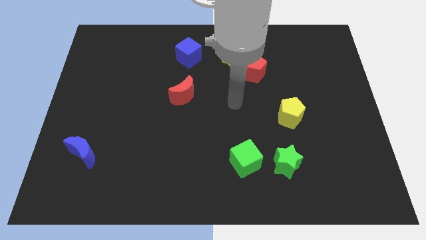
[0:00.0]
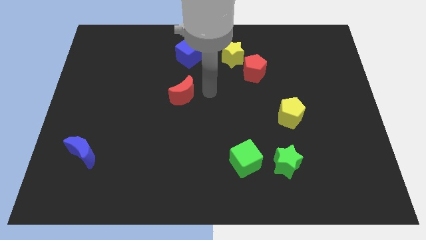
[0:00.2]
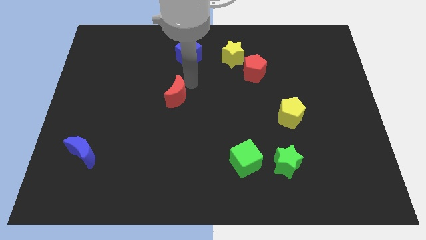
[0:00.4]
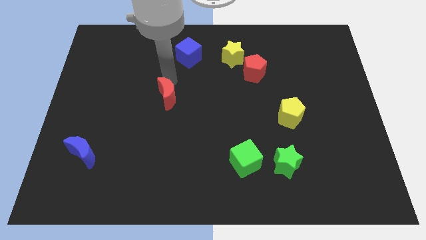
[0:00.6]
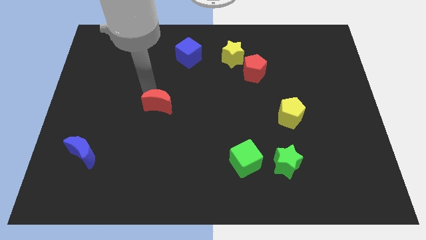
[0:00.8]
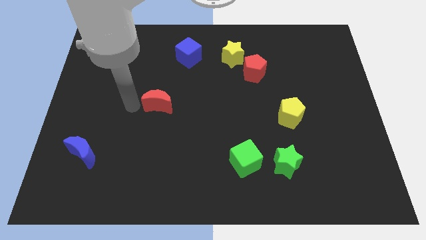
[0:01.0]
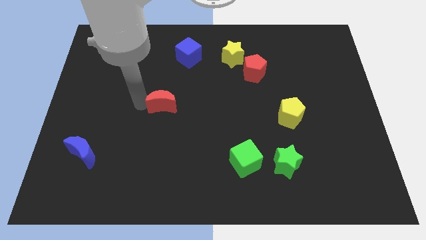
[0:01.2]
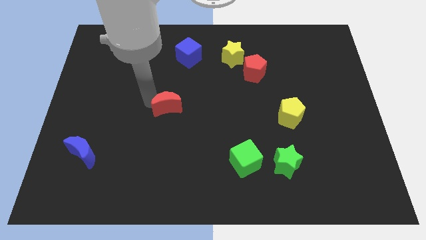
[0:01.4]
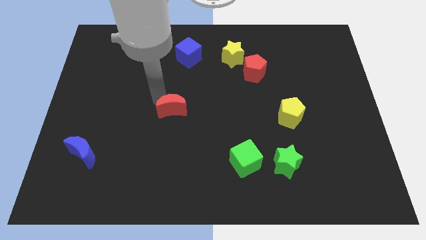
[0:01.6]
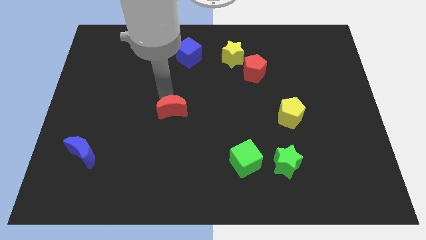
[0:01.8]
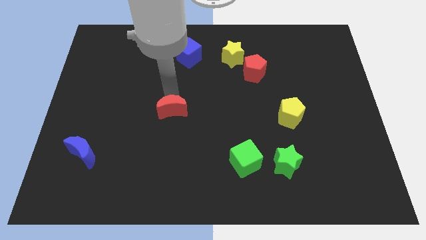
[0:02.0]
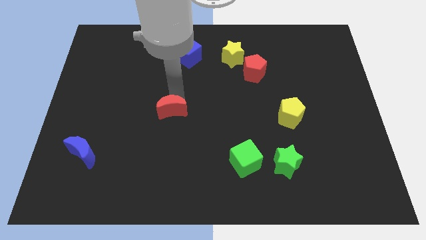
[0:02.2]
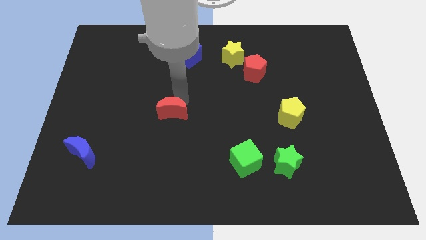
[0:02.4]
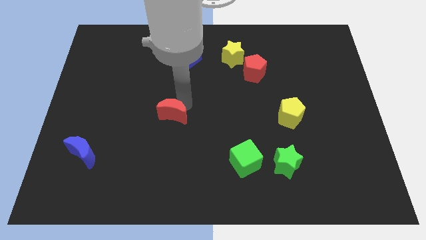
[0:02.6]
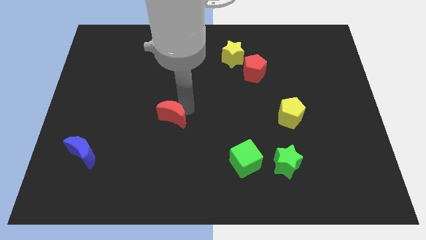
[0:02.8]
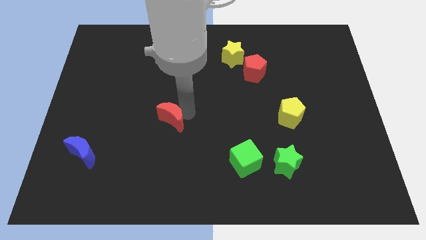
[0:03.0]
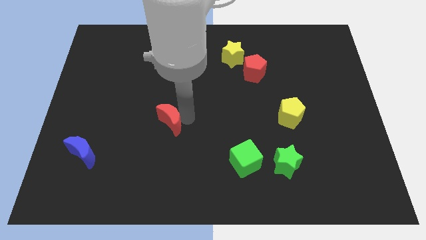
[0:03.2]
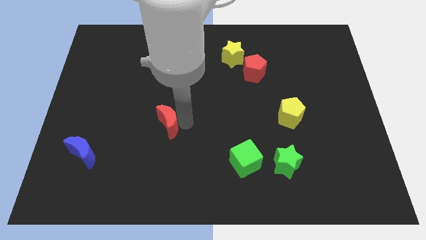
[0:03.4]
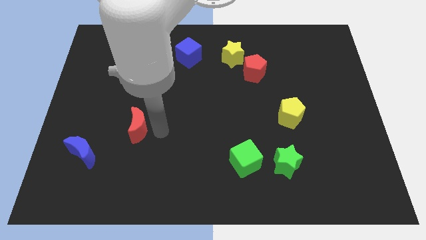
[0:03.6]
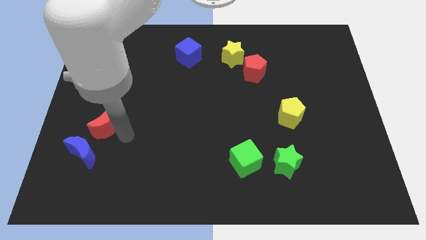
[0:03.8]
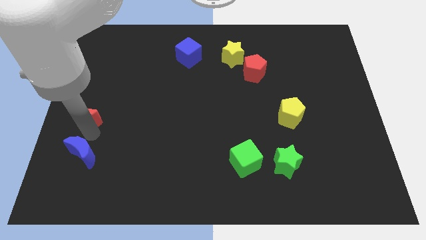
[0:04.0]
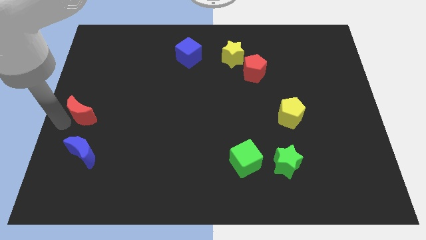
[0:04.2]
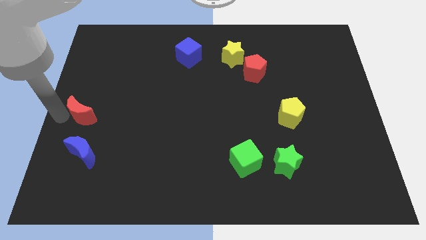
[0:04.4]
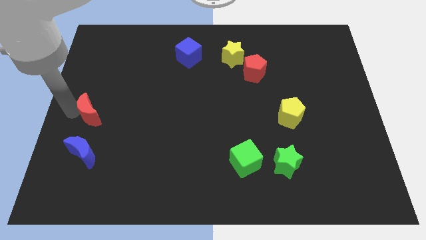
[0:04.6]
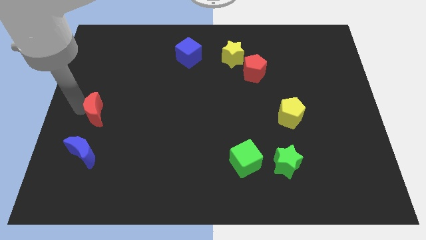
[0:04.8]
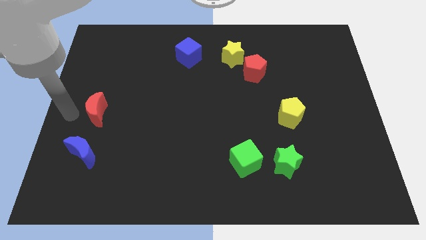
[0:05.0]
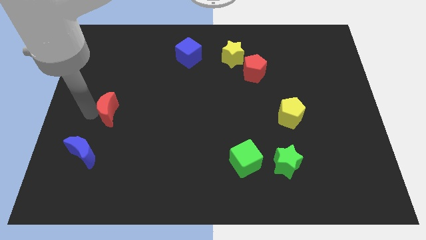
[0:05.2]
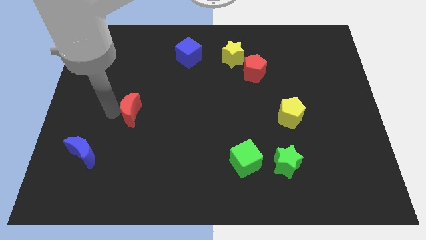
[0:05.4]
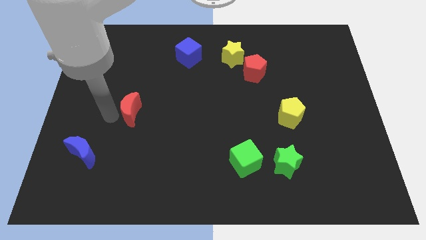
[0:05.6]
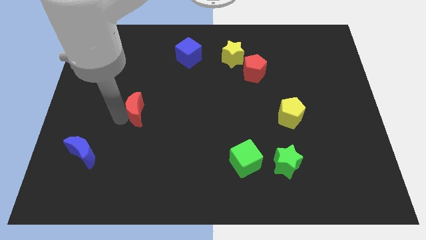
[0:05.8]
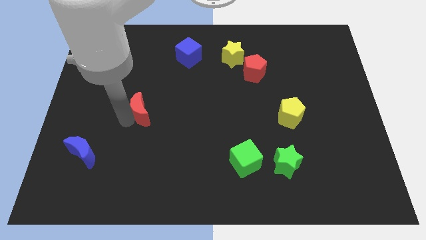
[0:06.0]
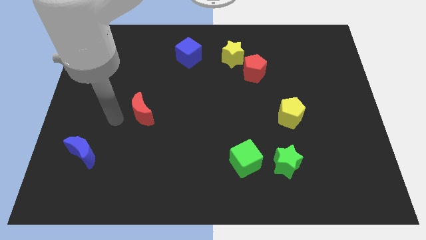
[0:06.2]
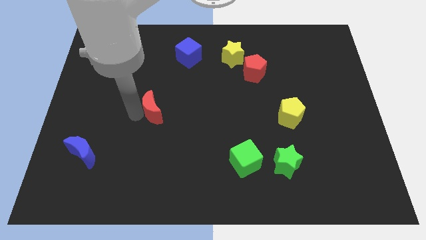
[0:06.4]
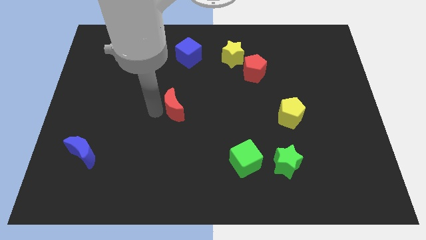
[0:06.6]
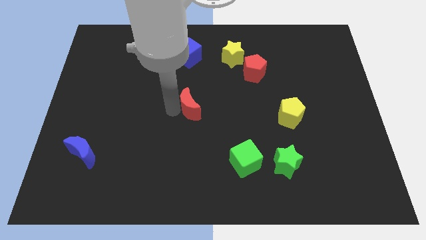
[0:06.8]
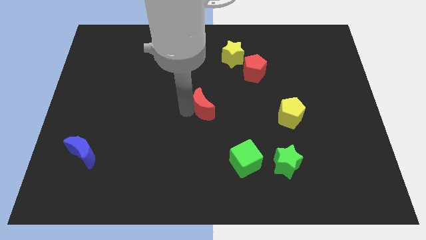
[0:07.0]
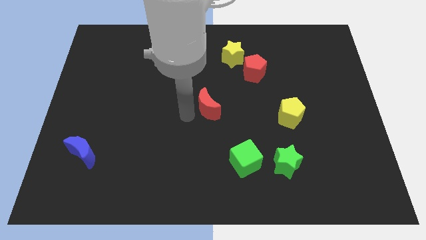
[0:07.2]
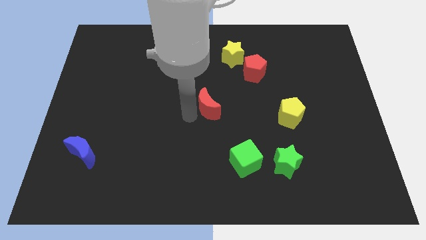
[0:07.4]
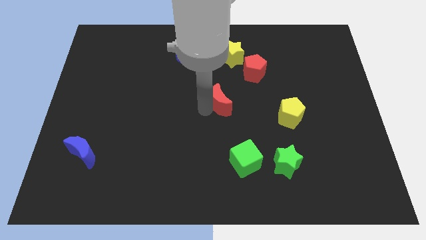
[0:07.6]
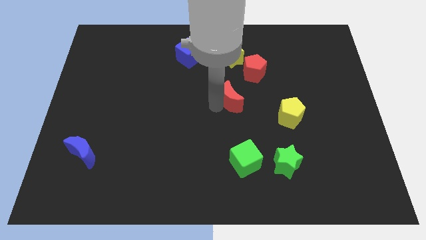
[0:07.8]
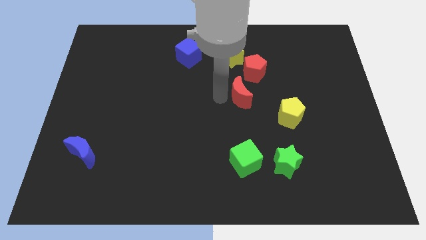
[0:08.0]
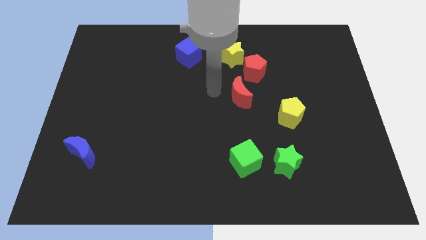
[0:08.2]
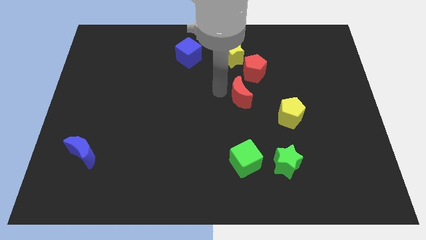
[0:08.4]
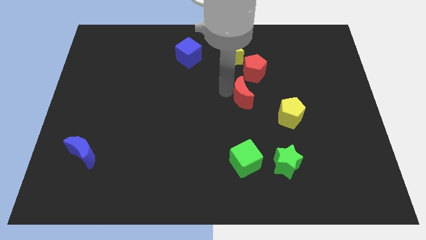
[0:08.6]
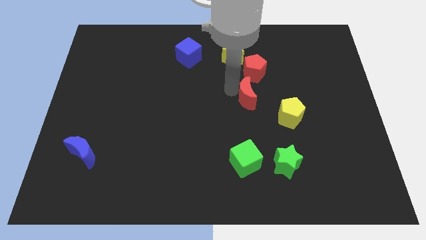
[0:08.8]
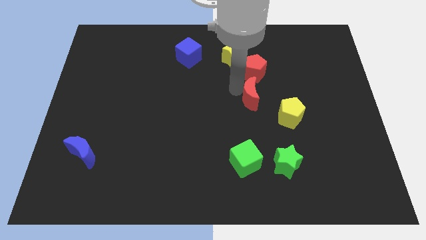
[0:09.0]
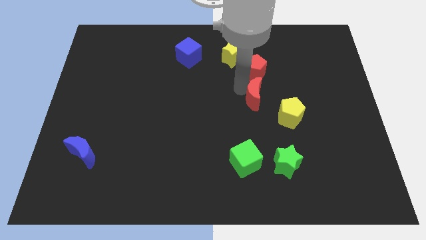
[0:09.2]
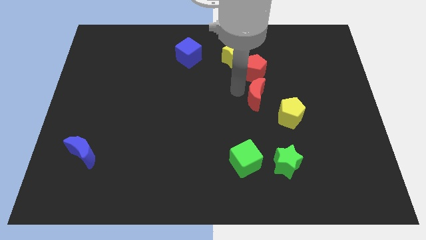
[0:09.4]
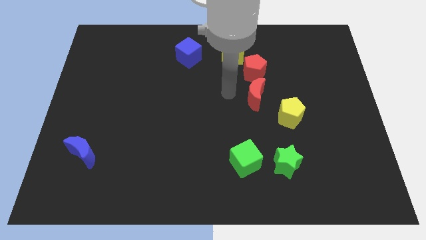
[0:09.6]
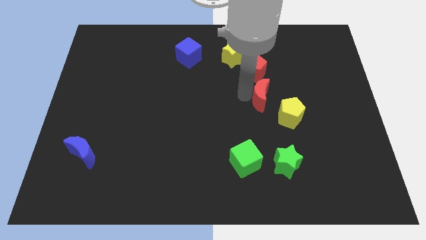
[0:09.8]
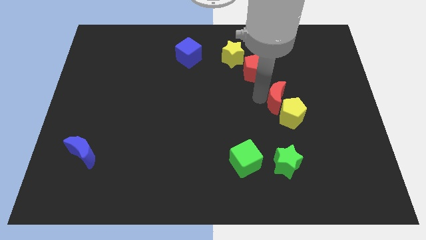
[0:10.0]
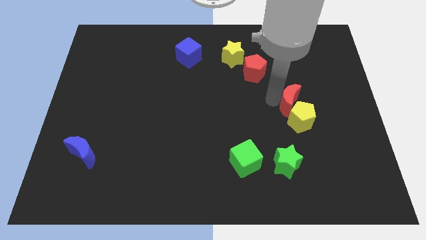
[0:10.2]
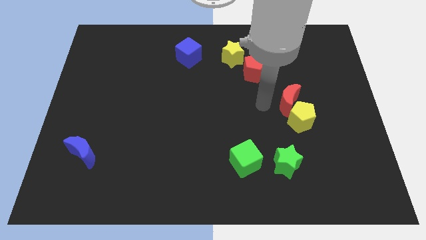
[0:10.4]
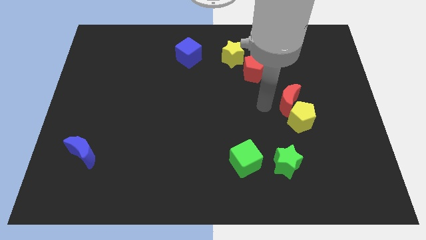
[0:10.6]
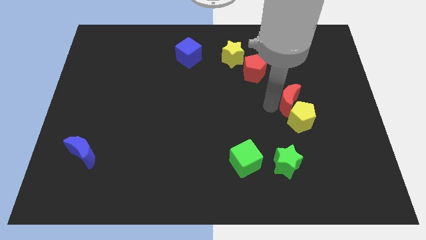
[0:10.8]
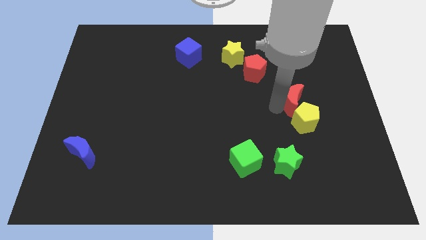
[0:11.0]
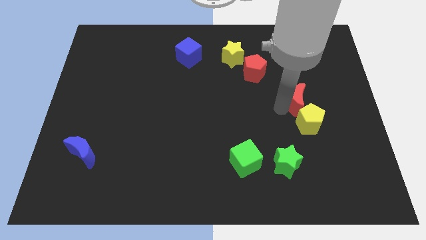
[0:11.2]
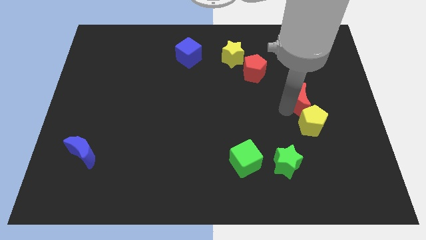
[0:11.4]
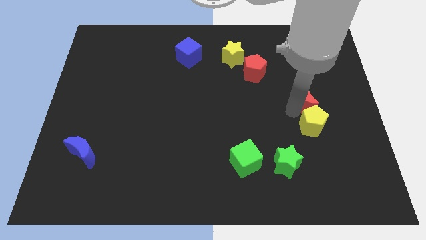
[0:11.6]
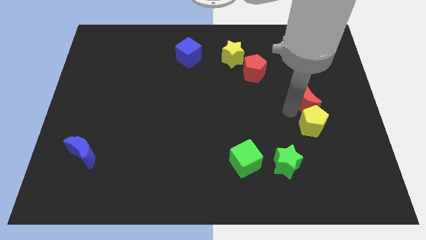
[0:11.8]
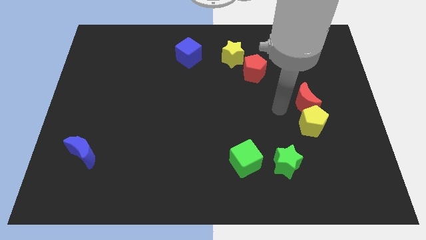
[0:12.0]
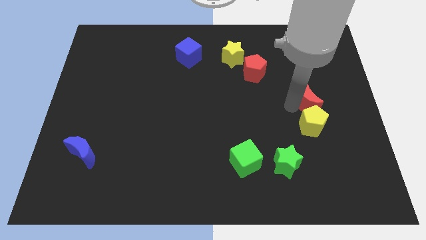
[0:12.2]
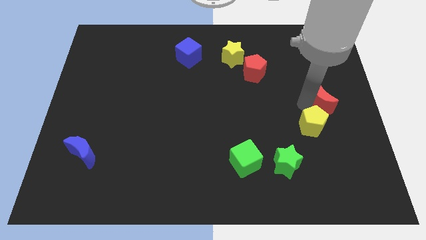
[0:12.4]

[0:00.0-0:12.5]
slide the red moon to the center right
